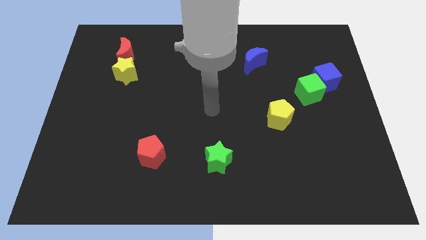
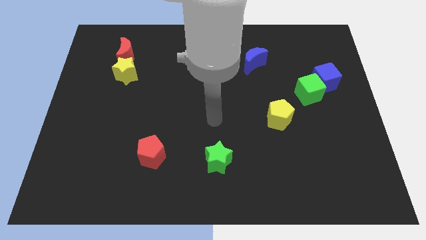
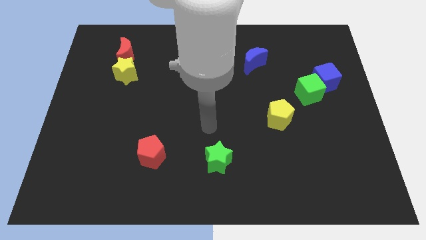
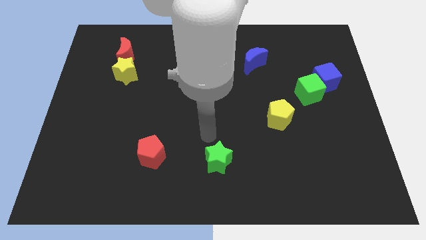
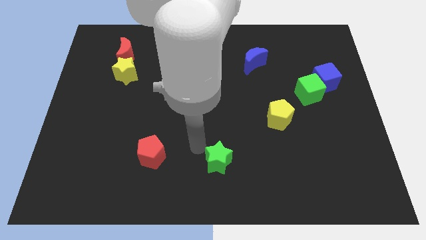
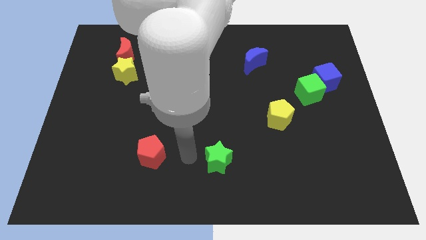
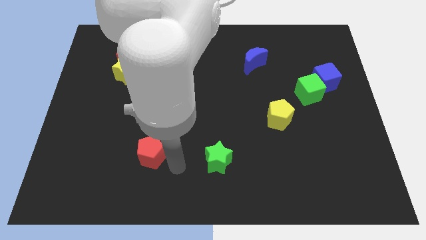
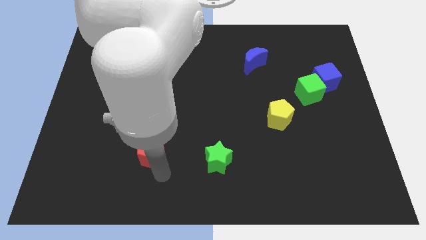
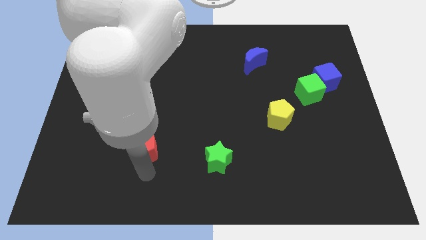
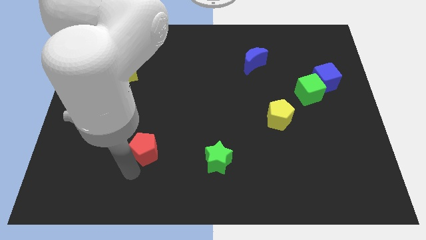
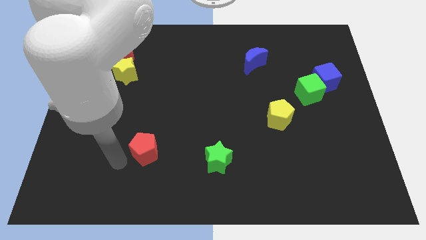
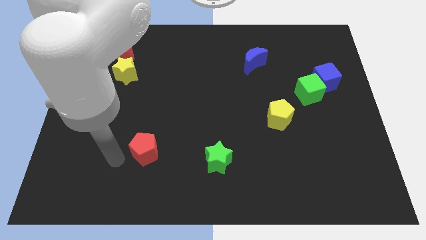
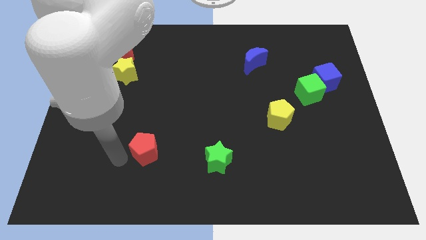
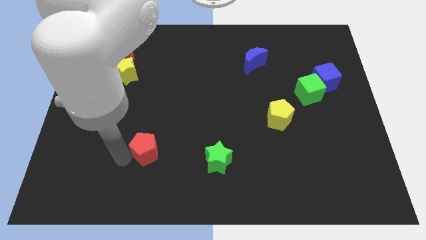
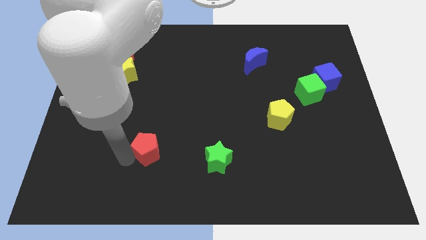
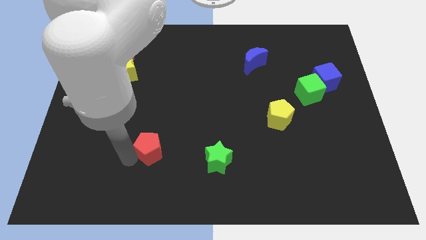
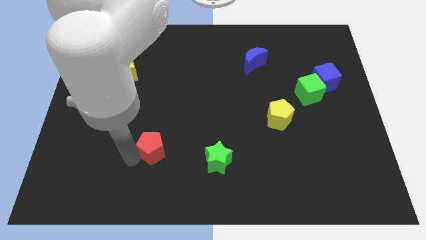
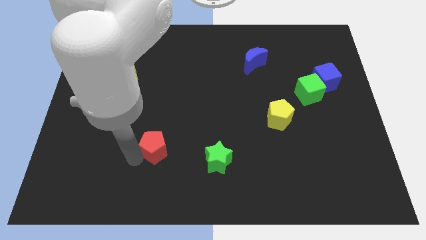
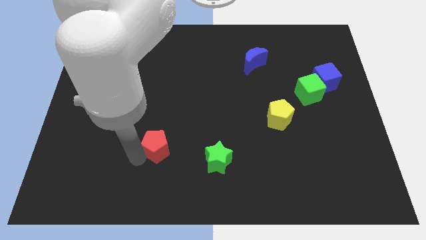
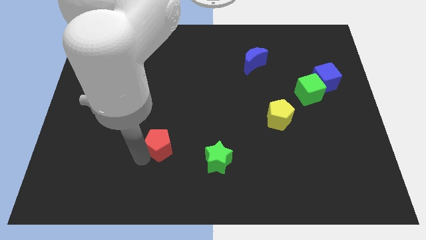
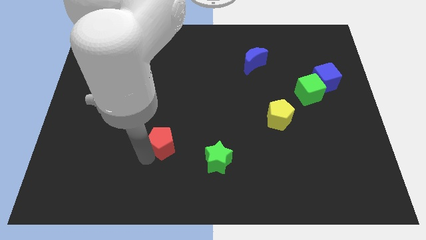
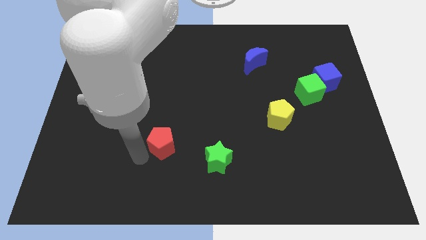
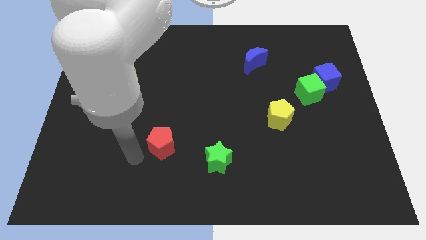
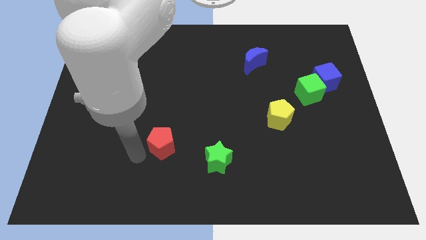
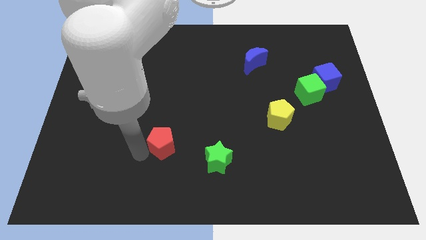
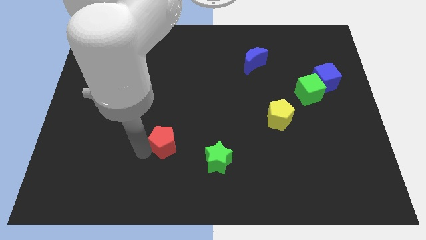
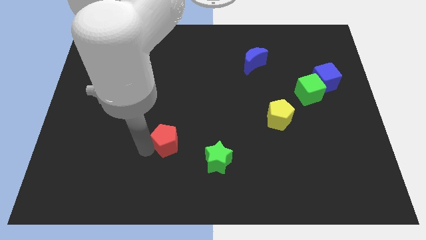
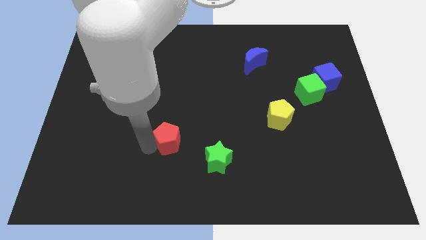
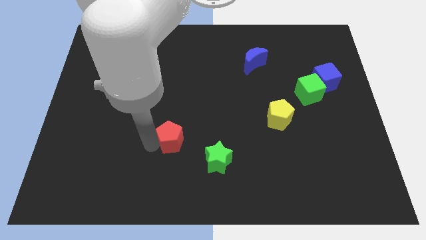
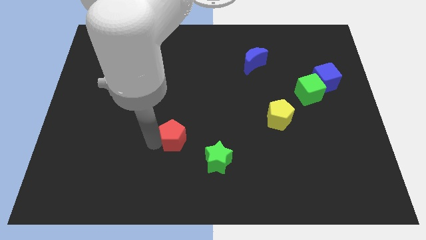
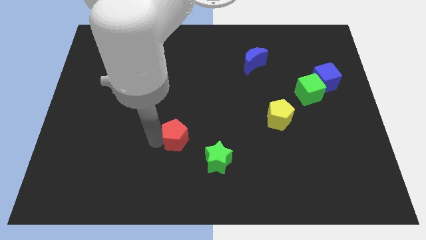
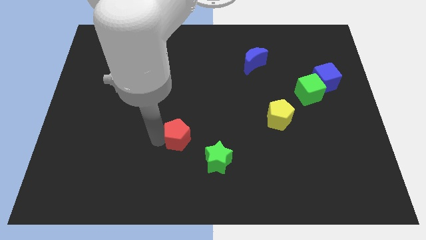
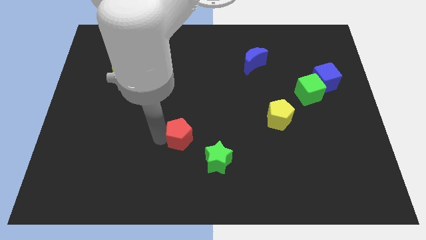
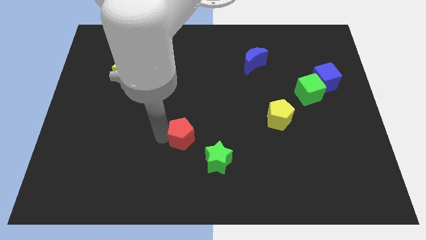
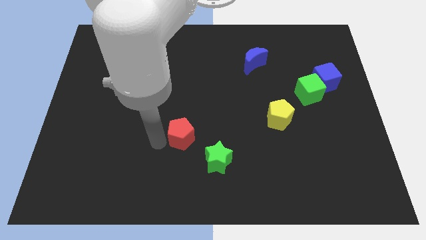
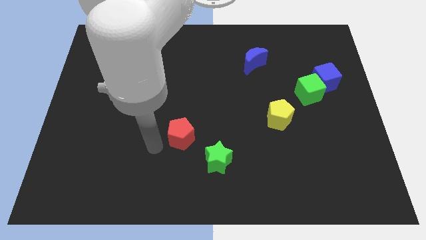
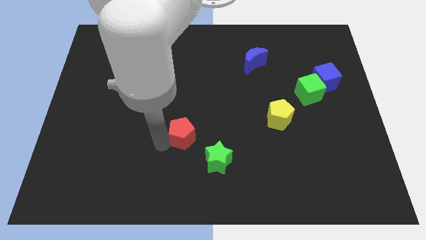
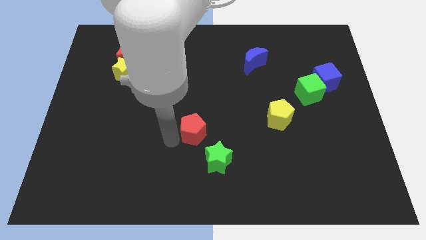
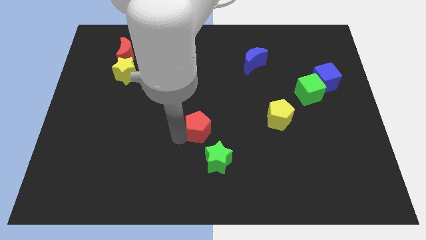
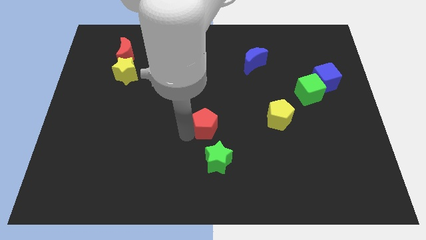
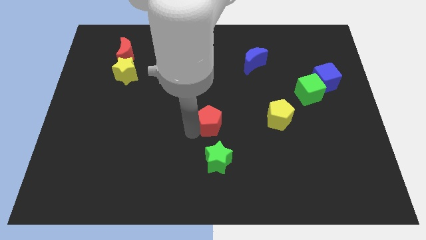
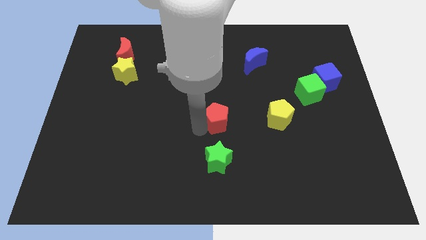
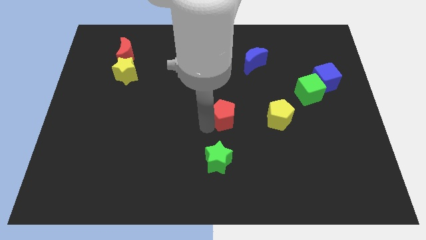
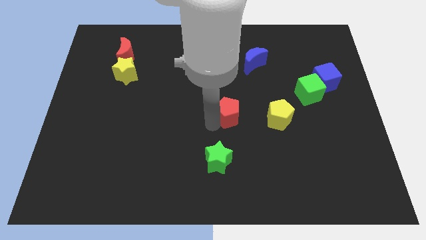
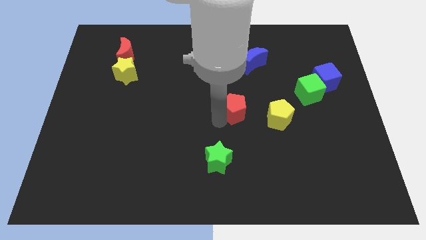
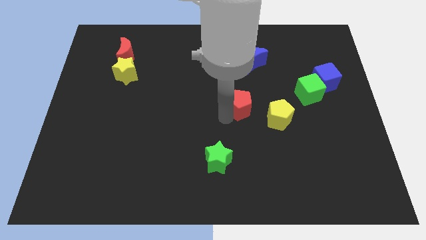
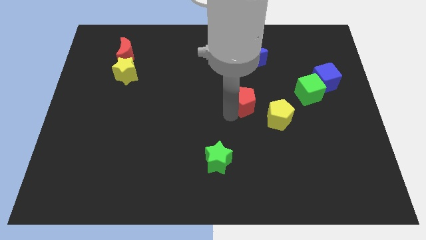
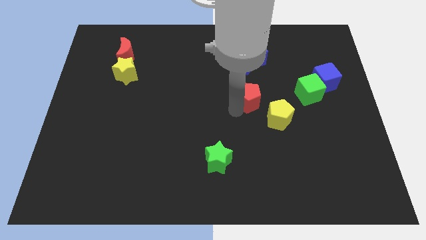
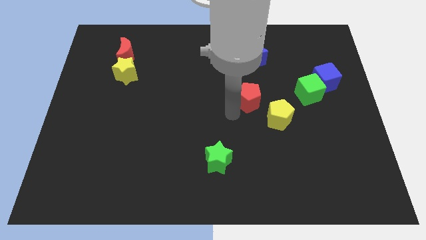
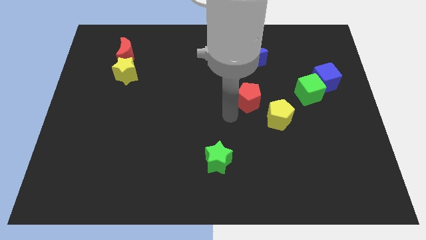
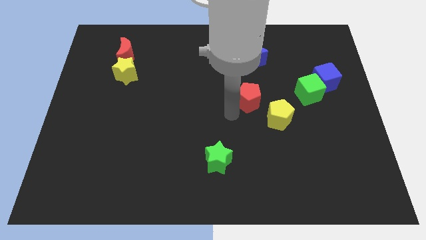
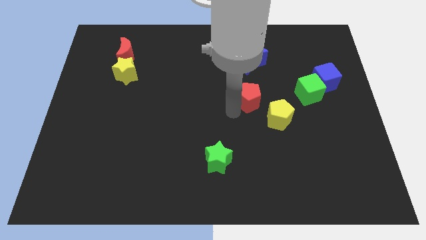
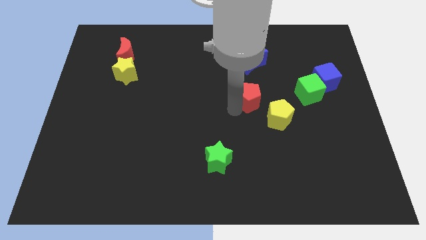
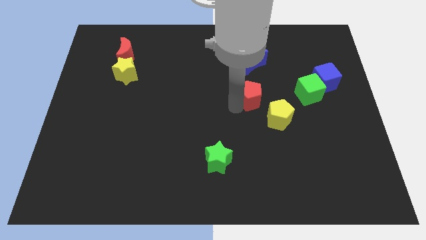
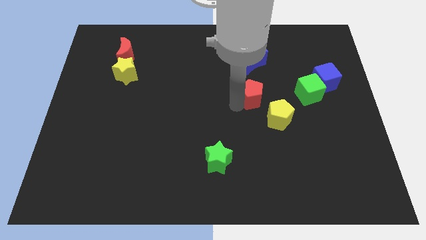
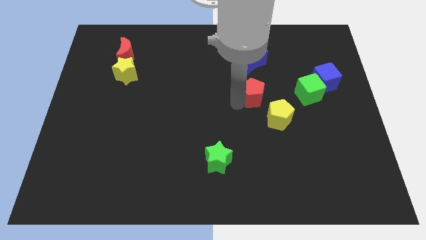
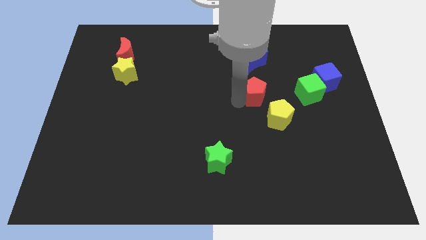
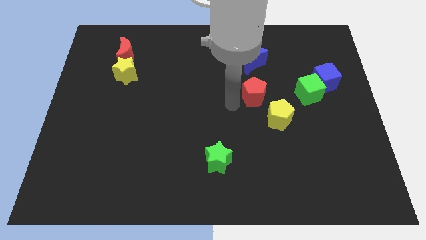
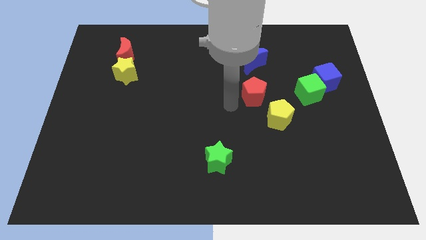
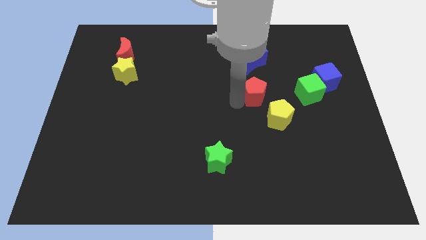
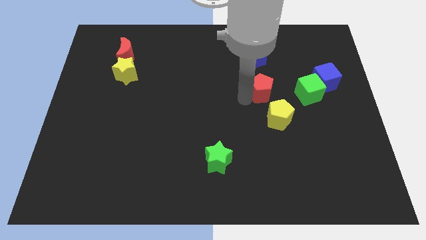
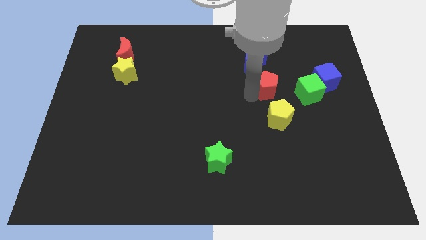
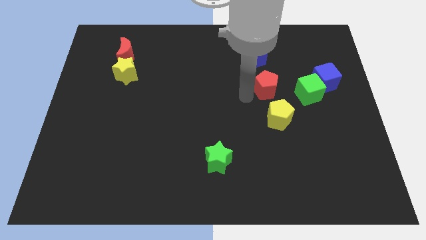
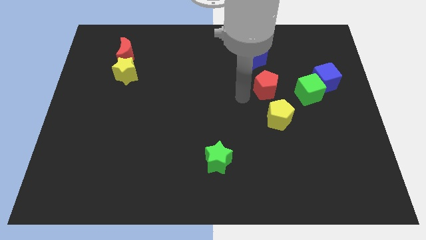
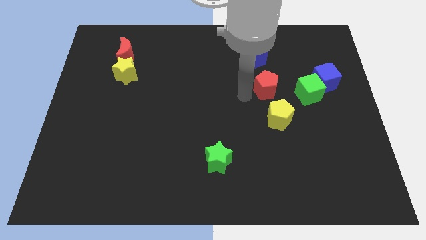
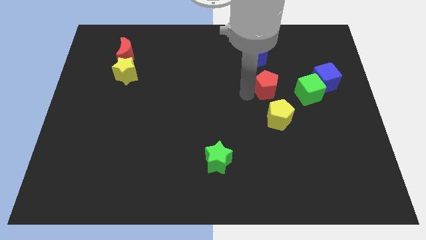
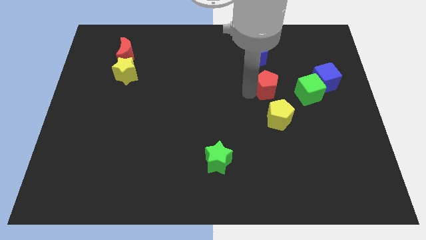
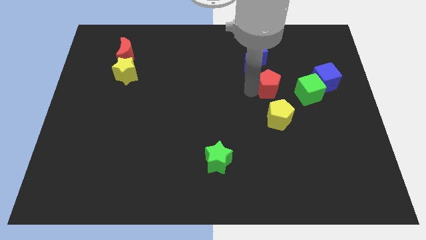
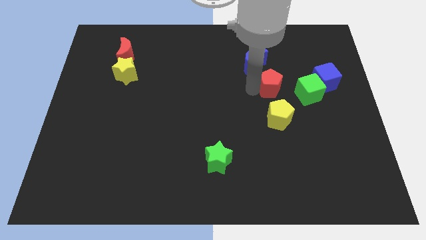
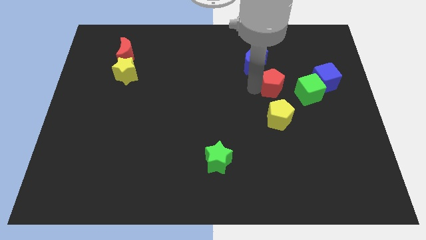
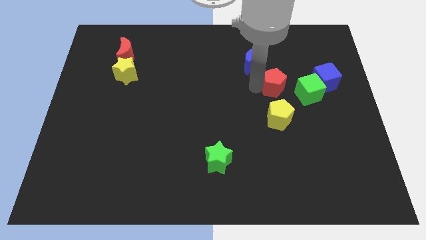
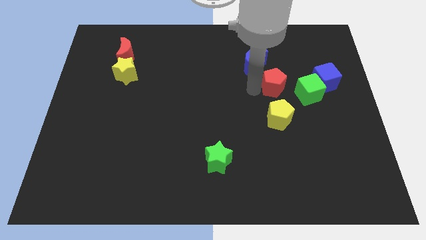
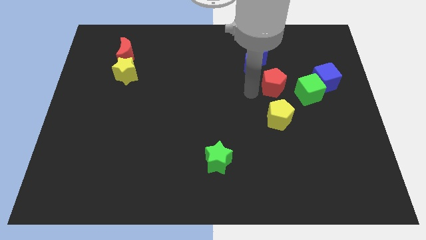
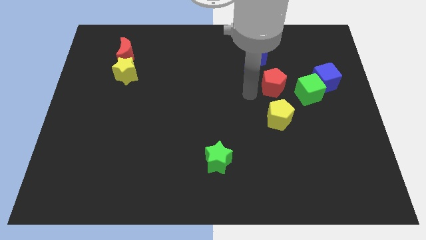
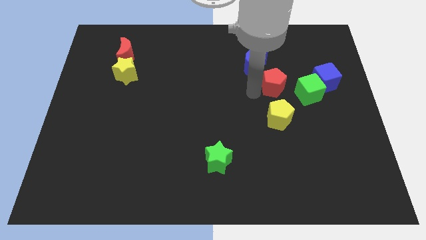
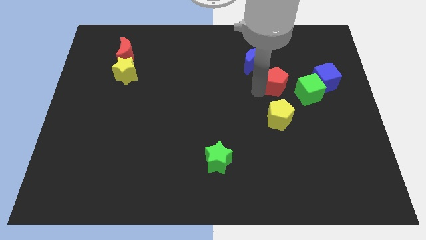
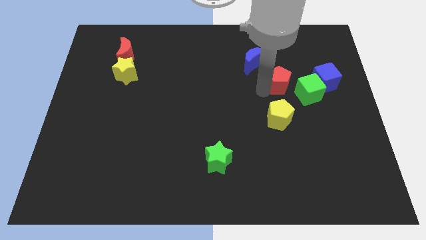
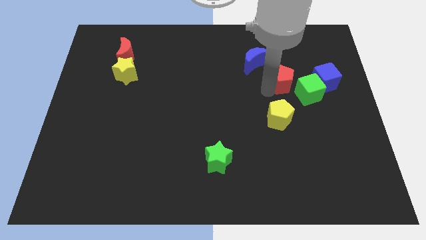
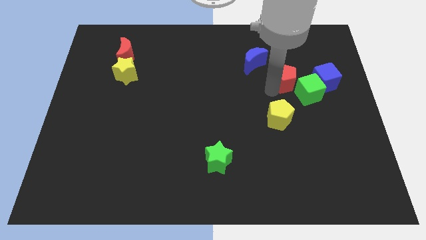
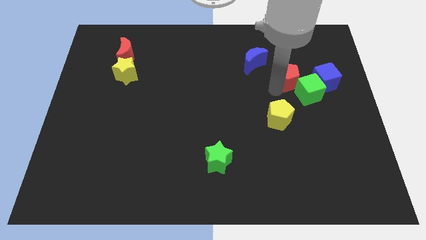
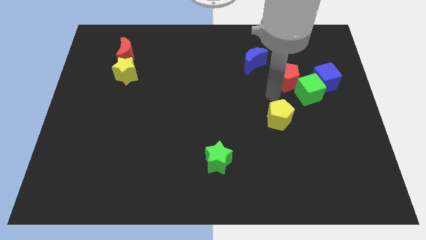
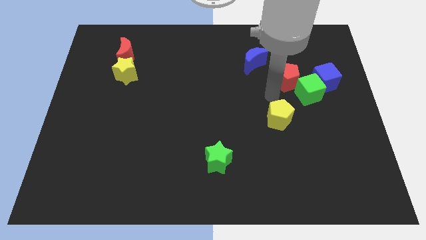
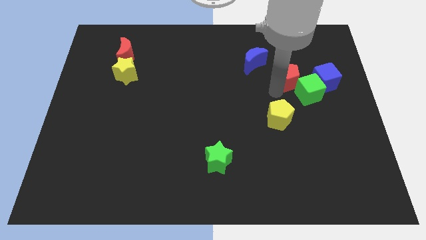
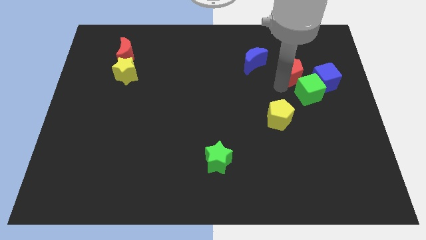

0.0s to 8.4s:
push the red pentagon to the top side of the green cube
